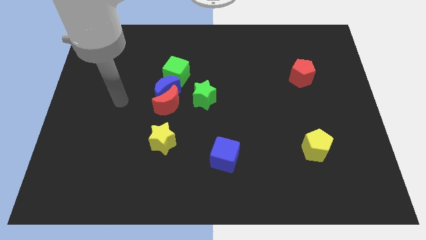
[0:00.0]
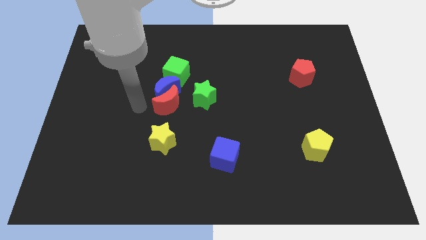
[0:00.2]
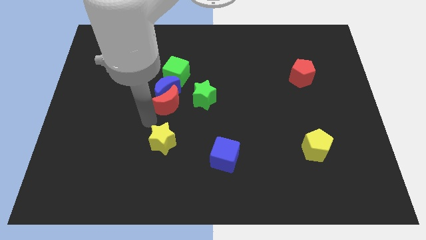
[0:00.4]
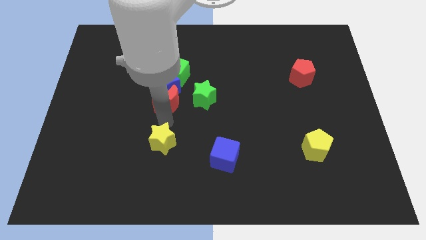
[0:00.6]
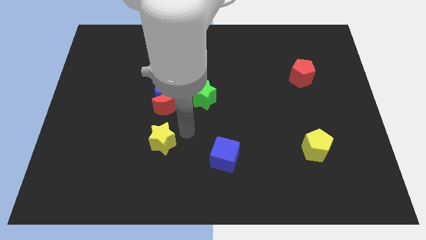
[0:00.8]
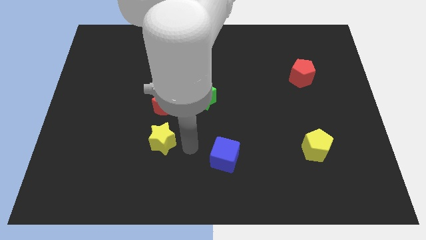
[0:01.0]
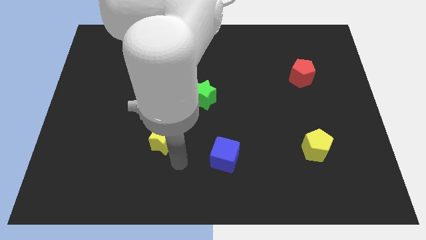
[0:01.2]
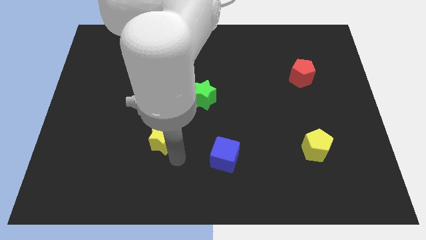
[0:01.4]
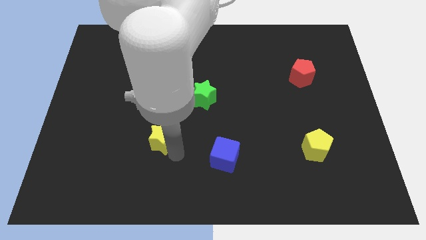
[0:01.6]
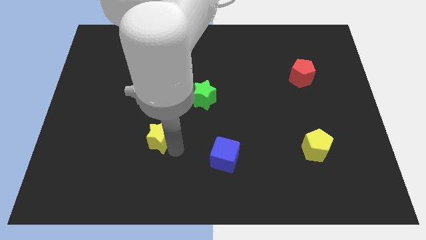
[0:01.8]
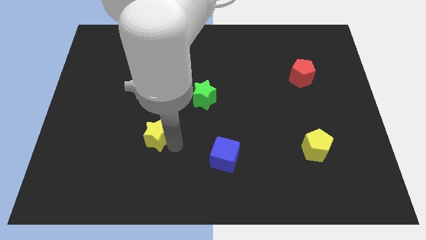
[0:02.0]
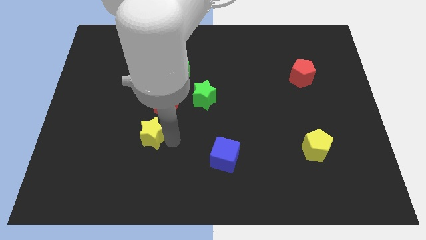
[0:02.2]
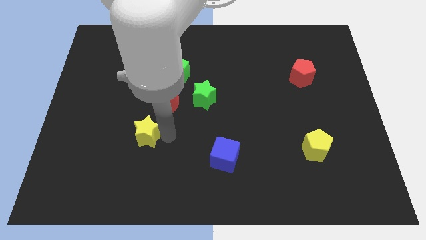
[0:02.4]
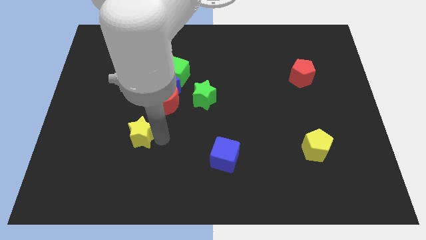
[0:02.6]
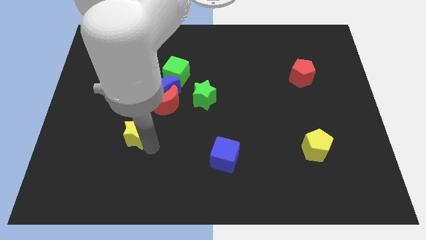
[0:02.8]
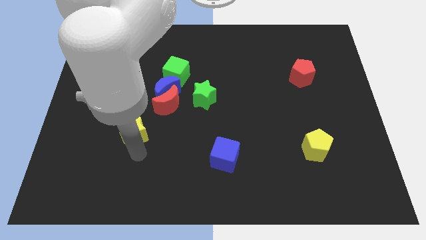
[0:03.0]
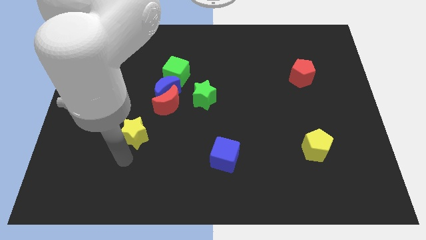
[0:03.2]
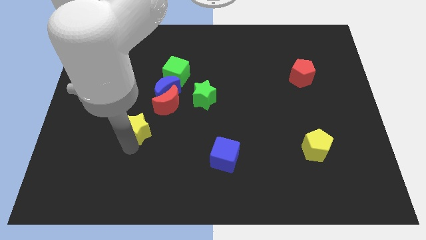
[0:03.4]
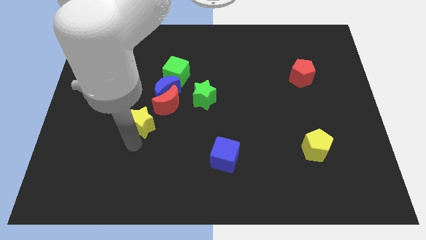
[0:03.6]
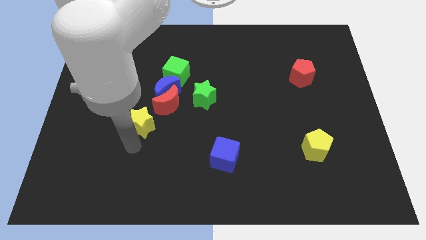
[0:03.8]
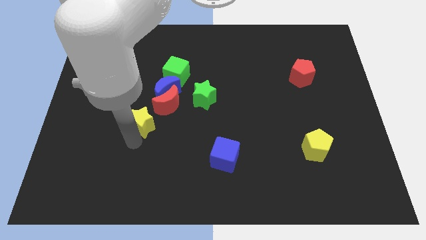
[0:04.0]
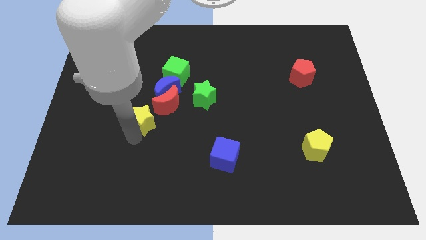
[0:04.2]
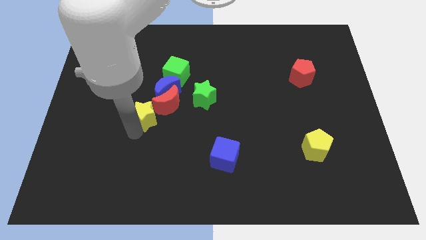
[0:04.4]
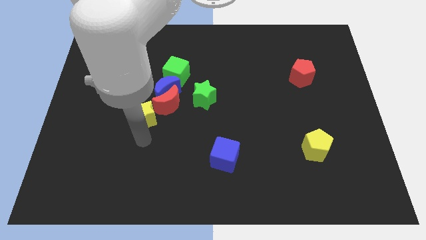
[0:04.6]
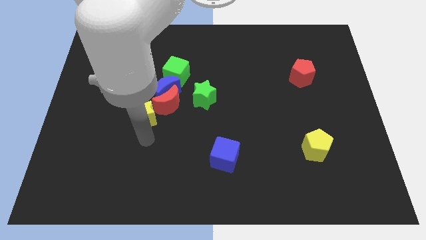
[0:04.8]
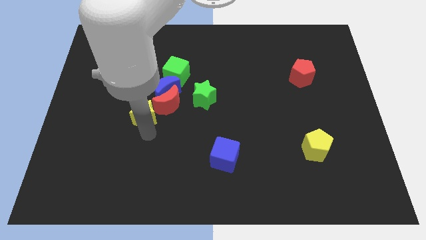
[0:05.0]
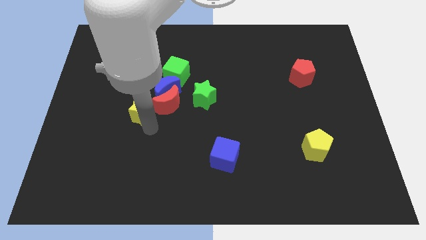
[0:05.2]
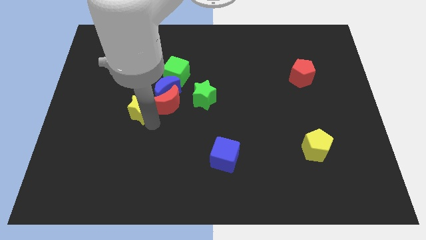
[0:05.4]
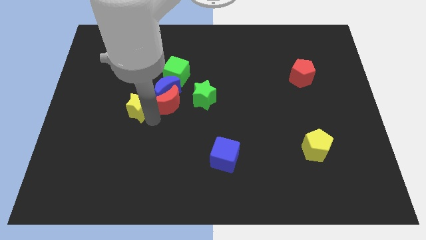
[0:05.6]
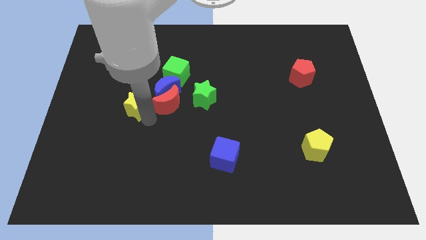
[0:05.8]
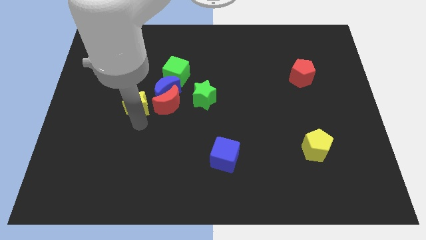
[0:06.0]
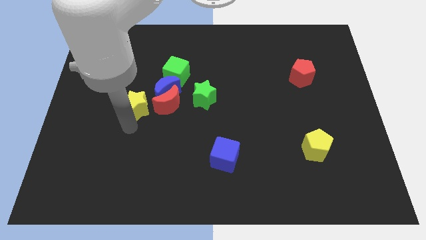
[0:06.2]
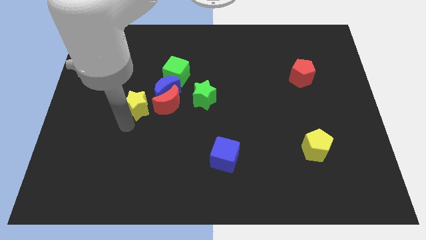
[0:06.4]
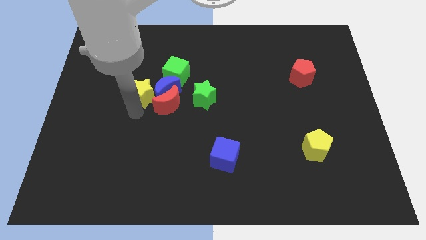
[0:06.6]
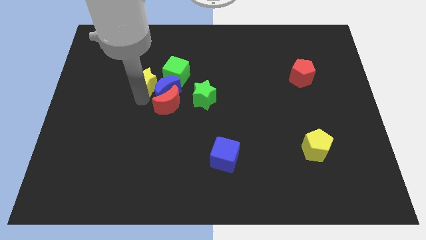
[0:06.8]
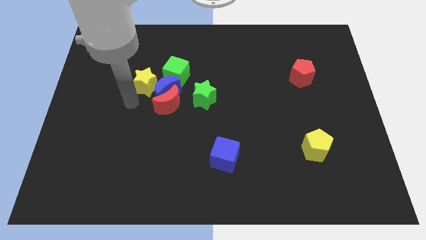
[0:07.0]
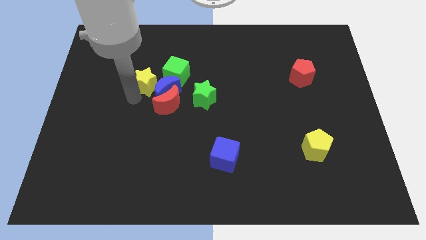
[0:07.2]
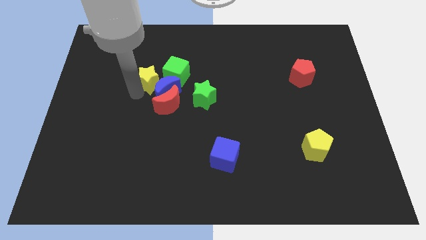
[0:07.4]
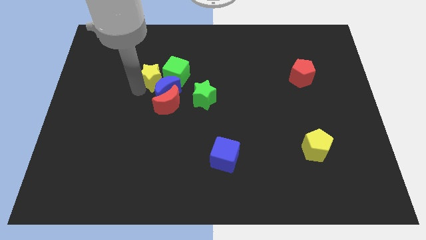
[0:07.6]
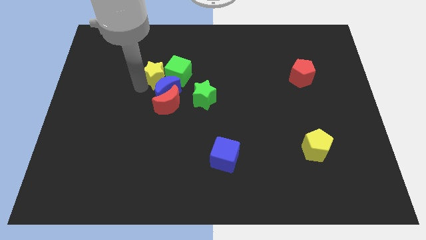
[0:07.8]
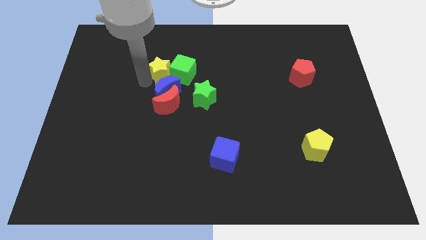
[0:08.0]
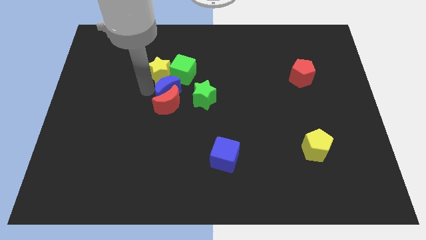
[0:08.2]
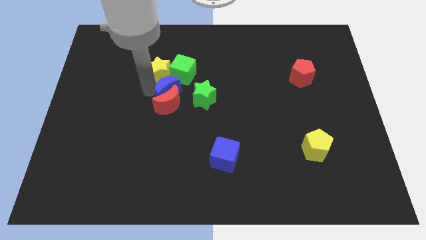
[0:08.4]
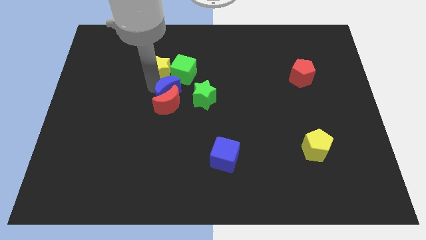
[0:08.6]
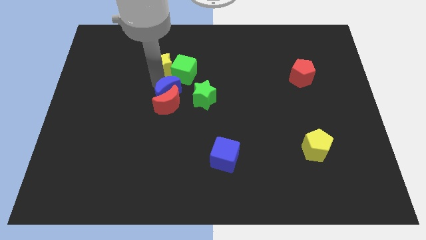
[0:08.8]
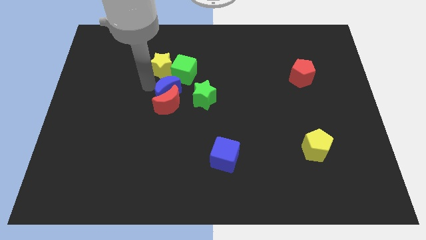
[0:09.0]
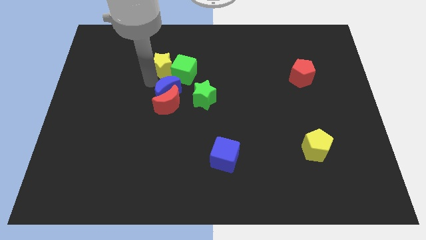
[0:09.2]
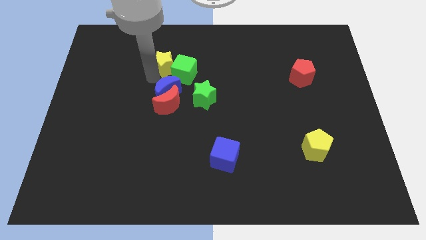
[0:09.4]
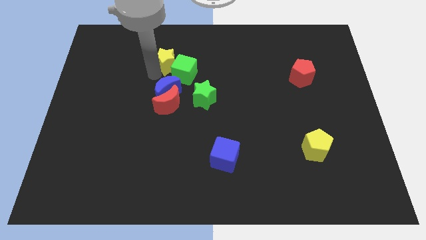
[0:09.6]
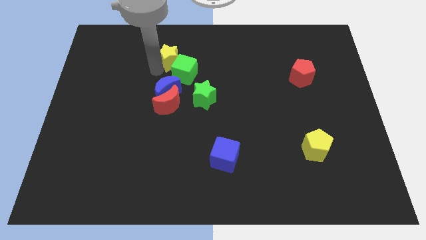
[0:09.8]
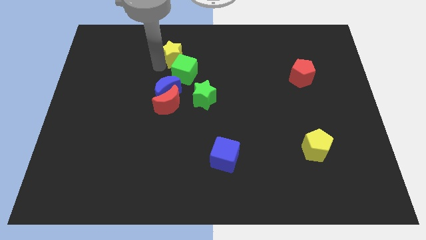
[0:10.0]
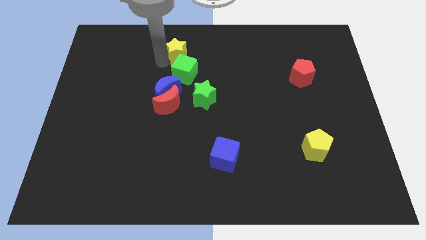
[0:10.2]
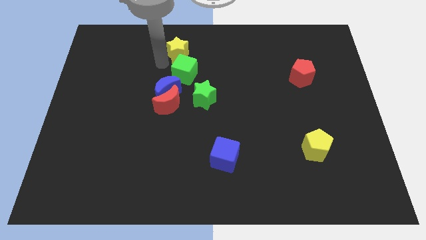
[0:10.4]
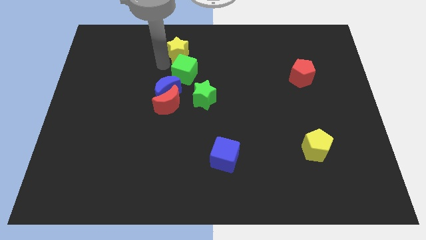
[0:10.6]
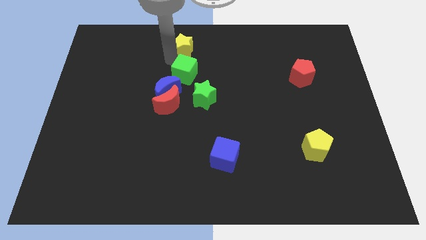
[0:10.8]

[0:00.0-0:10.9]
put the yellow star to the towards your base
